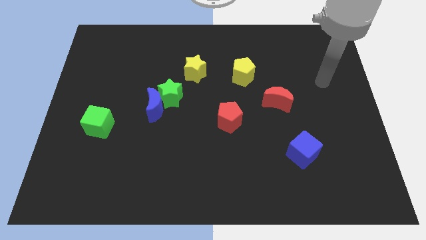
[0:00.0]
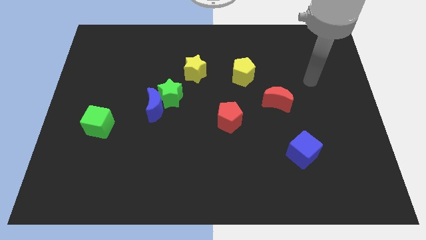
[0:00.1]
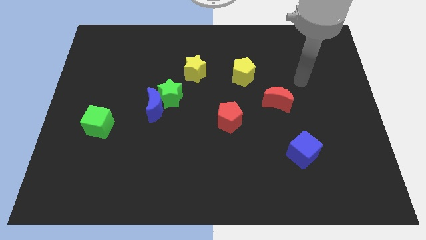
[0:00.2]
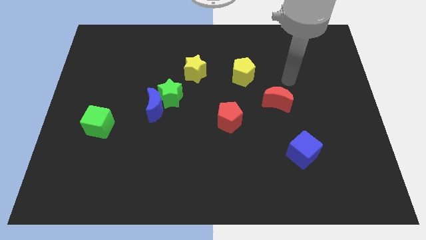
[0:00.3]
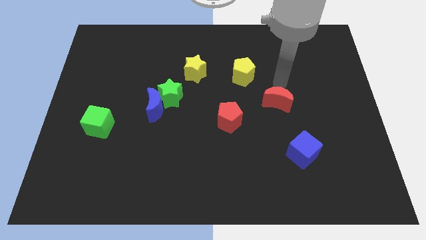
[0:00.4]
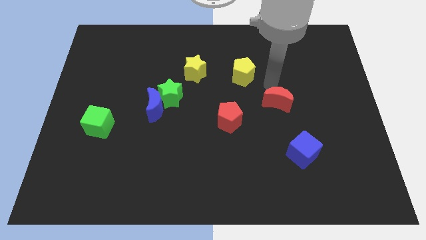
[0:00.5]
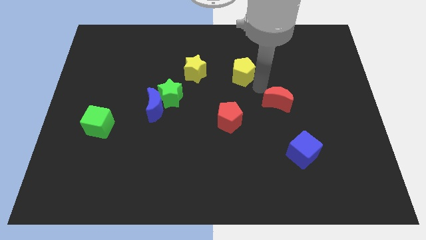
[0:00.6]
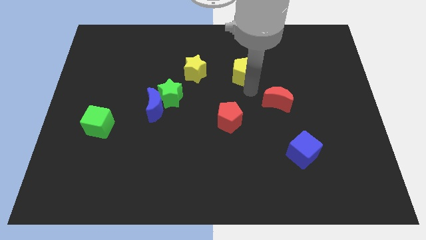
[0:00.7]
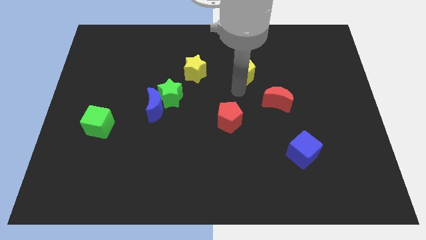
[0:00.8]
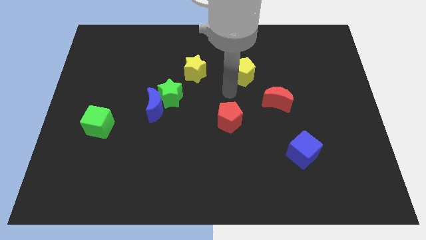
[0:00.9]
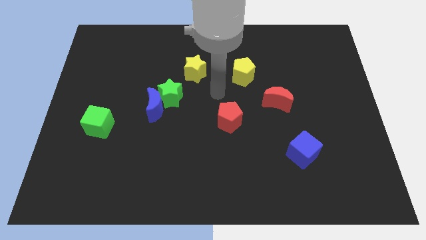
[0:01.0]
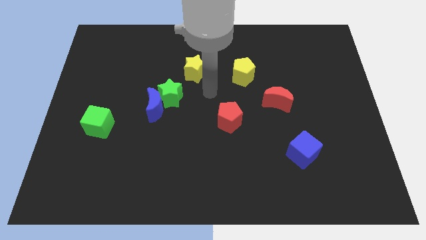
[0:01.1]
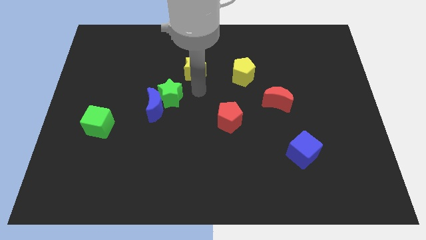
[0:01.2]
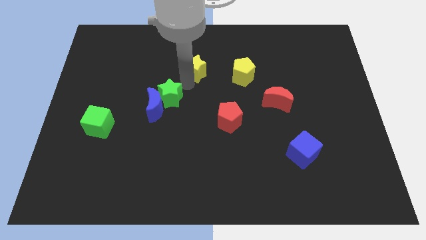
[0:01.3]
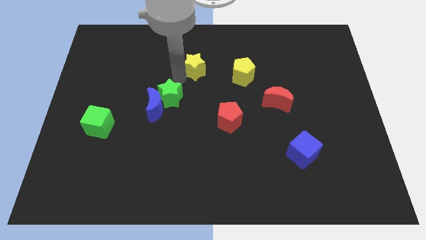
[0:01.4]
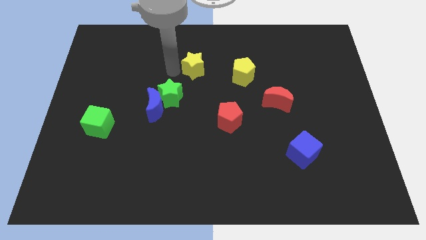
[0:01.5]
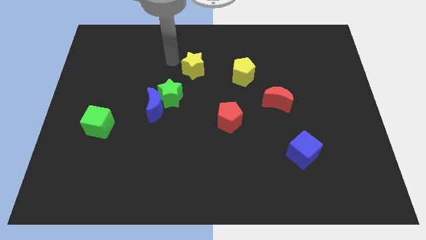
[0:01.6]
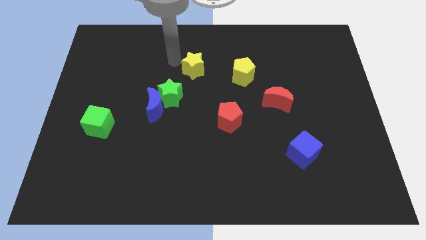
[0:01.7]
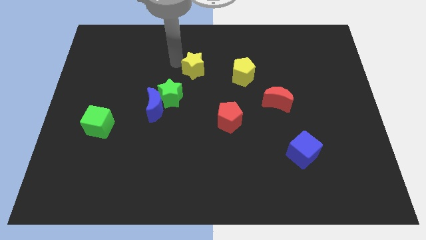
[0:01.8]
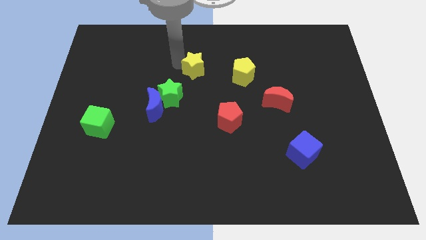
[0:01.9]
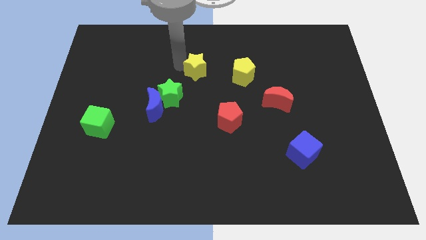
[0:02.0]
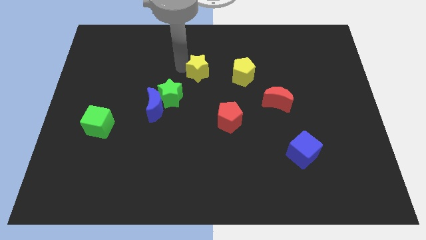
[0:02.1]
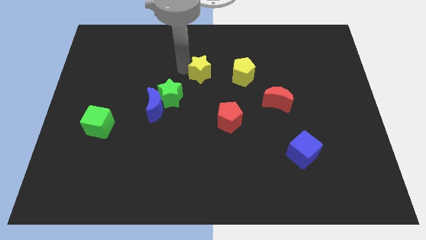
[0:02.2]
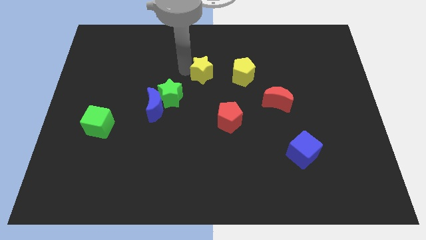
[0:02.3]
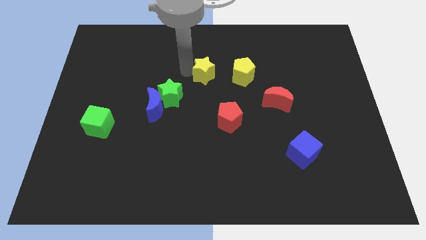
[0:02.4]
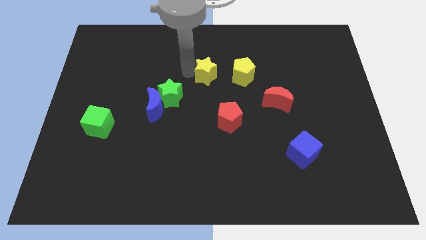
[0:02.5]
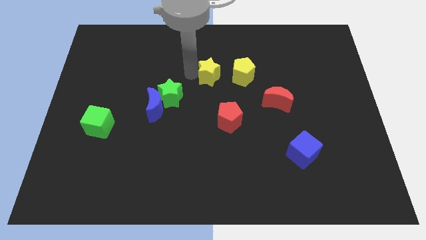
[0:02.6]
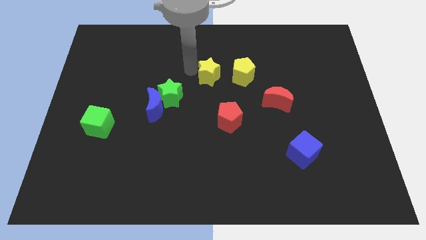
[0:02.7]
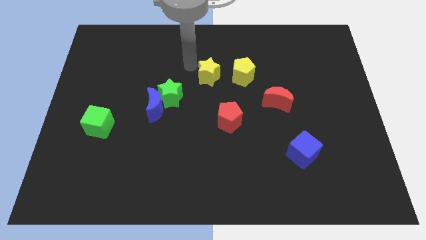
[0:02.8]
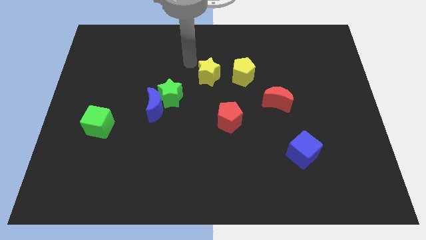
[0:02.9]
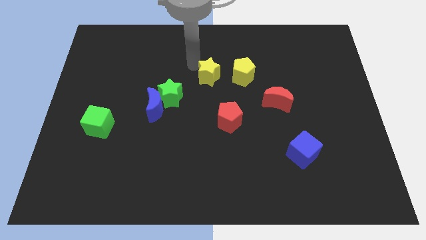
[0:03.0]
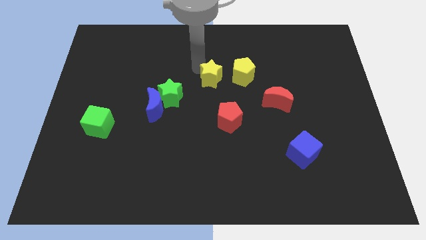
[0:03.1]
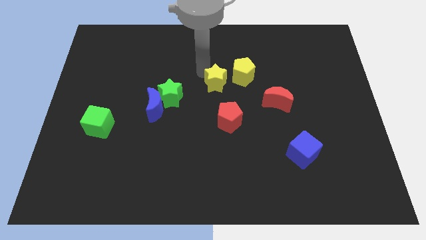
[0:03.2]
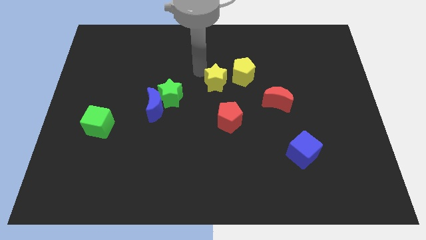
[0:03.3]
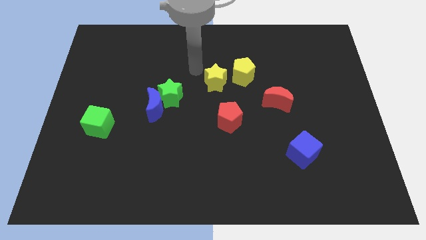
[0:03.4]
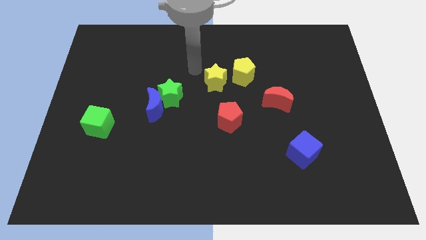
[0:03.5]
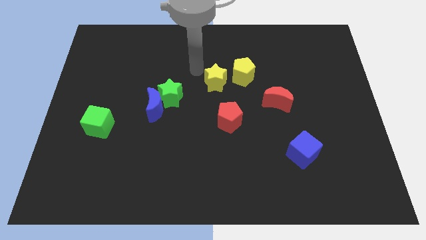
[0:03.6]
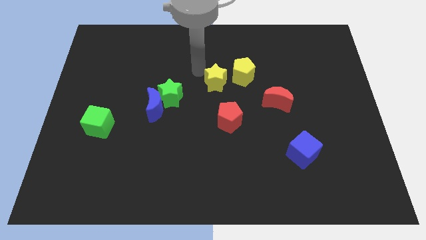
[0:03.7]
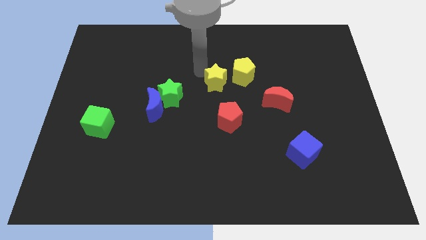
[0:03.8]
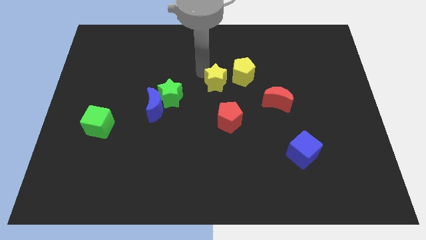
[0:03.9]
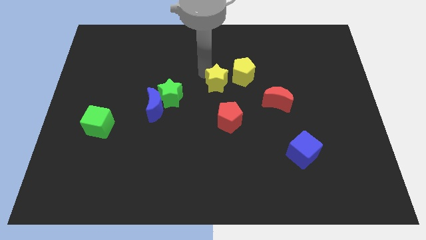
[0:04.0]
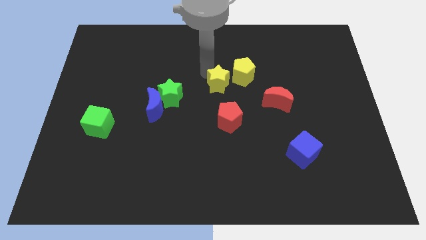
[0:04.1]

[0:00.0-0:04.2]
slightly push the yellow star diagonally down and right

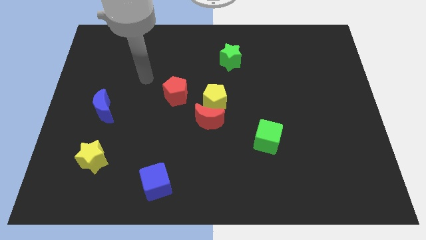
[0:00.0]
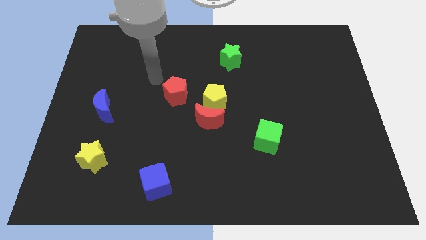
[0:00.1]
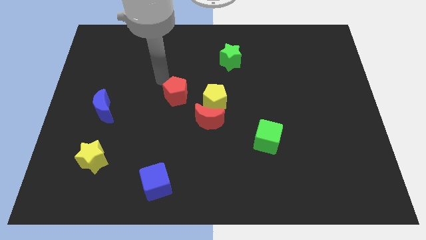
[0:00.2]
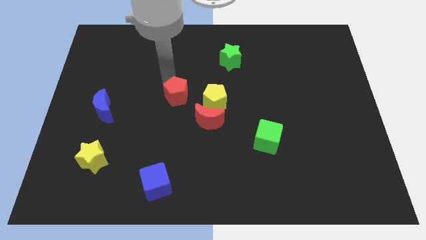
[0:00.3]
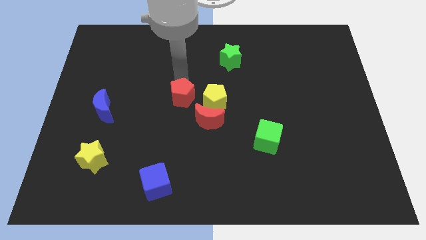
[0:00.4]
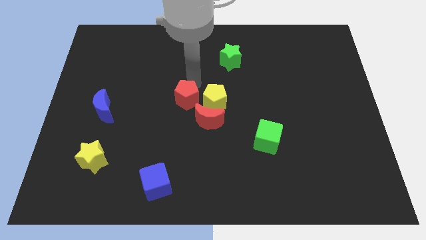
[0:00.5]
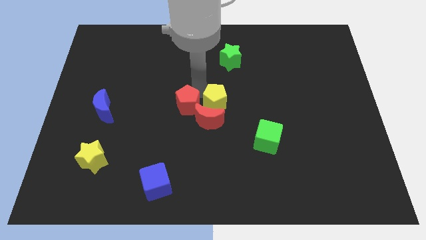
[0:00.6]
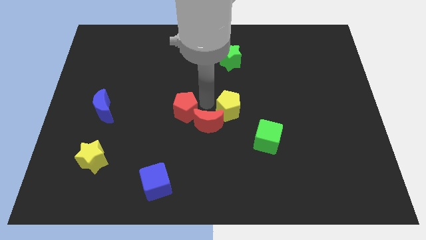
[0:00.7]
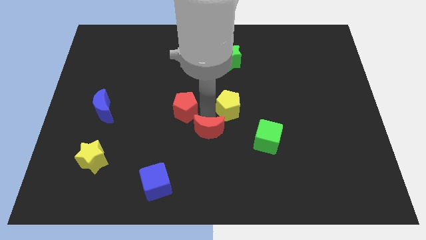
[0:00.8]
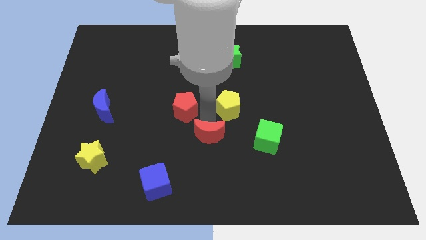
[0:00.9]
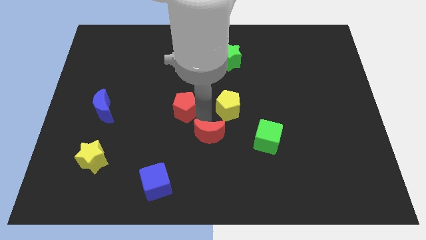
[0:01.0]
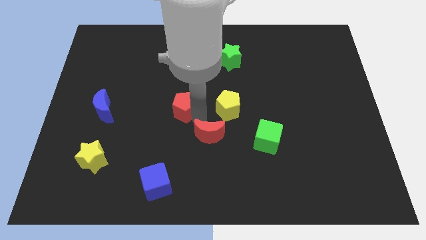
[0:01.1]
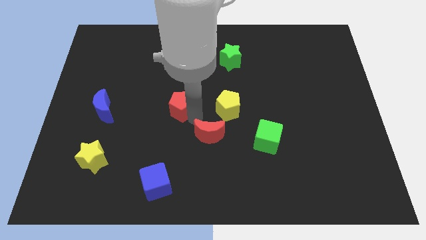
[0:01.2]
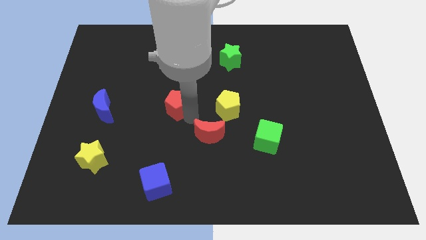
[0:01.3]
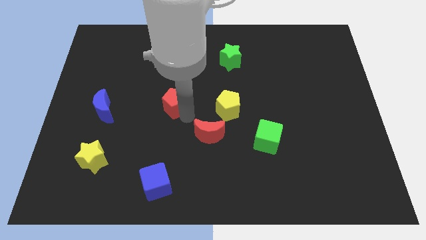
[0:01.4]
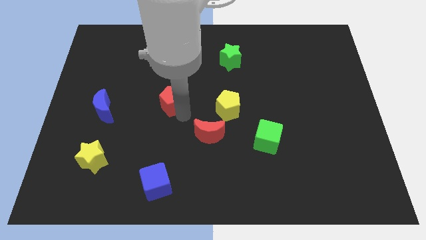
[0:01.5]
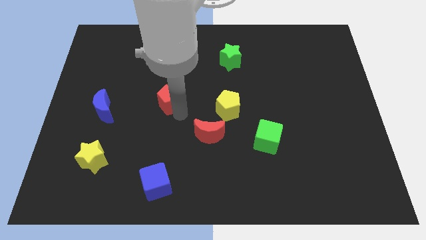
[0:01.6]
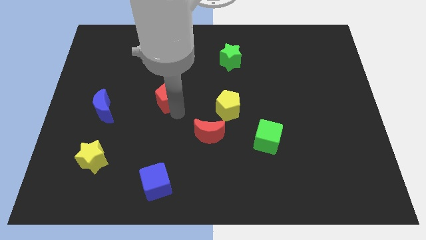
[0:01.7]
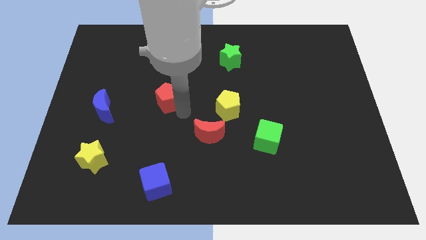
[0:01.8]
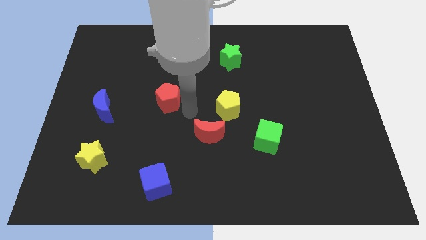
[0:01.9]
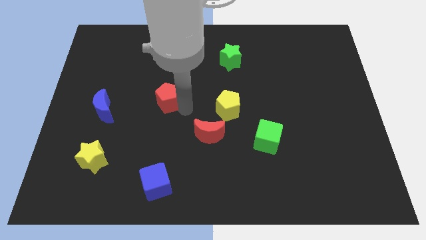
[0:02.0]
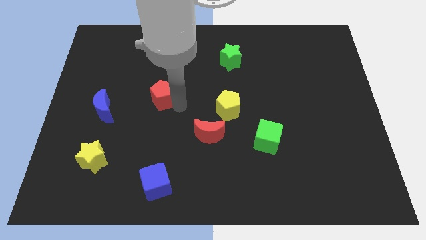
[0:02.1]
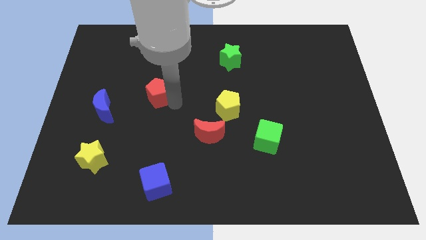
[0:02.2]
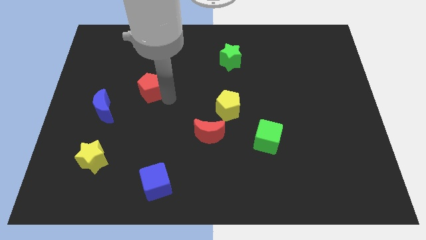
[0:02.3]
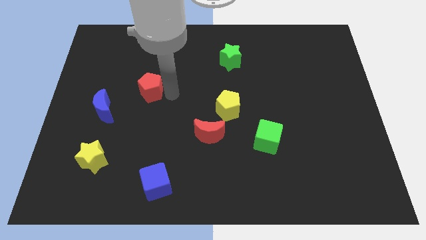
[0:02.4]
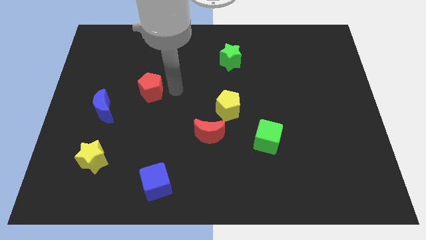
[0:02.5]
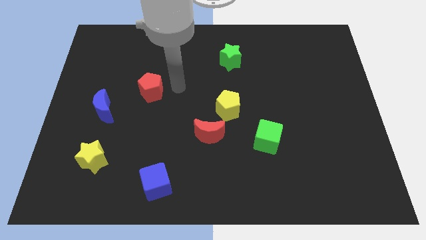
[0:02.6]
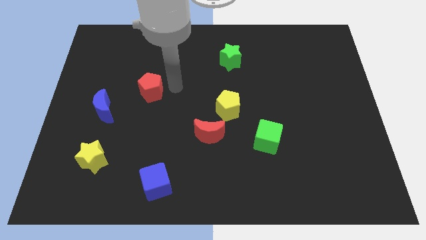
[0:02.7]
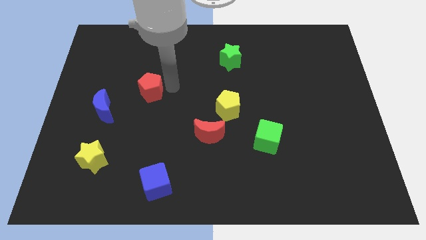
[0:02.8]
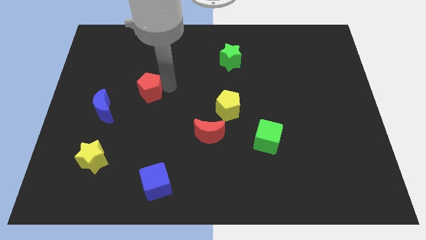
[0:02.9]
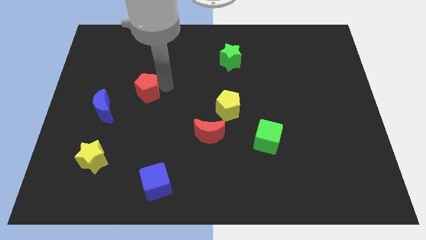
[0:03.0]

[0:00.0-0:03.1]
slide the red pentagon left a bit

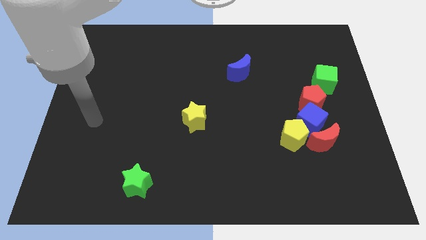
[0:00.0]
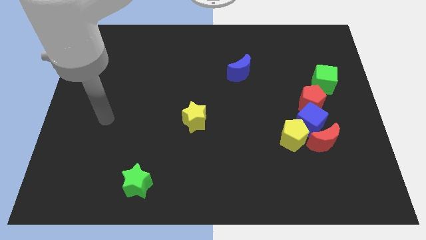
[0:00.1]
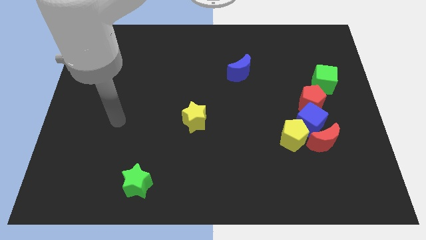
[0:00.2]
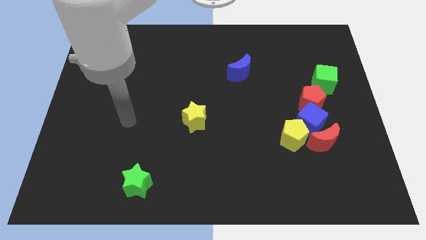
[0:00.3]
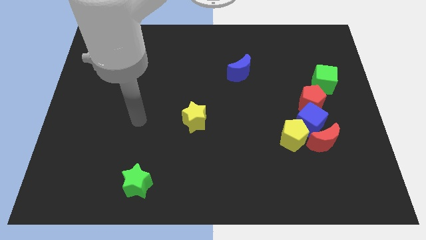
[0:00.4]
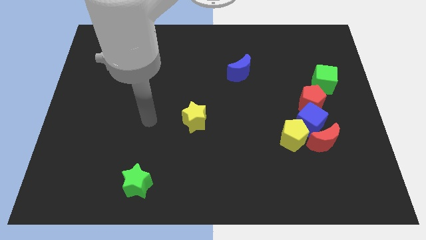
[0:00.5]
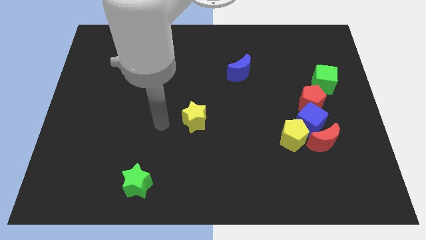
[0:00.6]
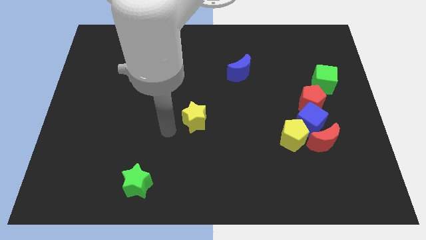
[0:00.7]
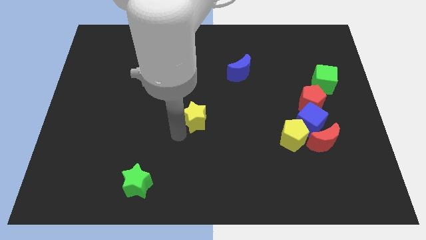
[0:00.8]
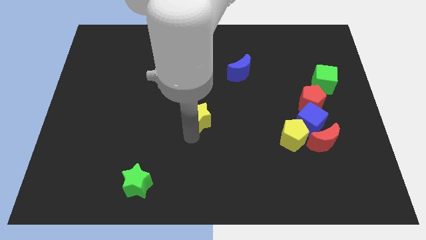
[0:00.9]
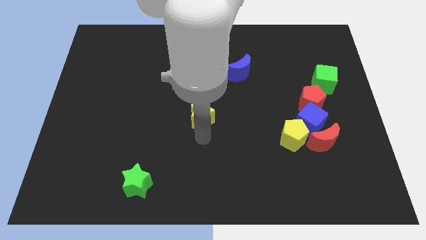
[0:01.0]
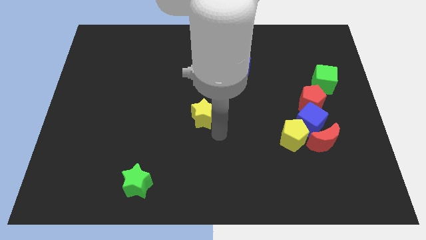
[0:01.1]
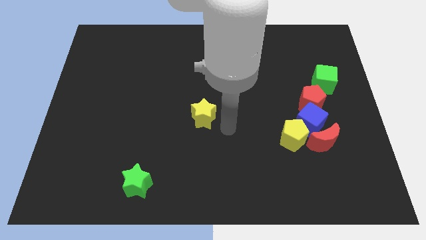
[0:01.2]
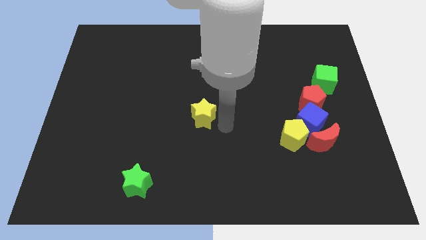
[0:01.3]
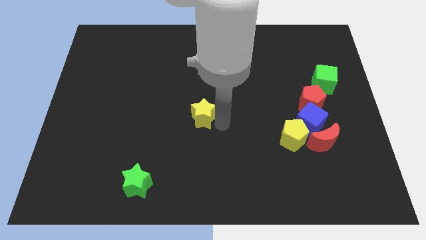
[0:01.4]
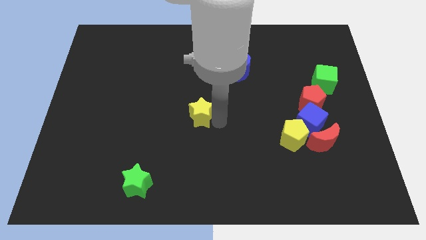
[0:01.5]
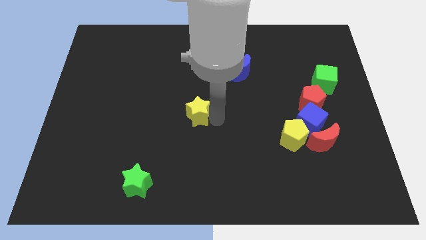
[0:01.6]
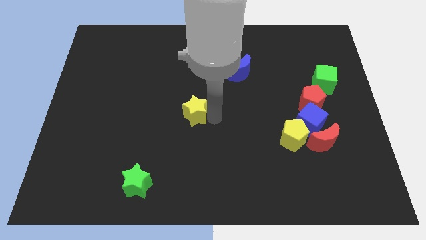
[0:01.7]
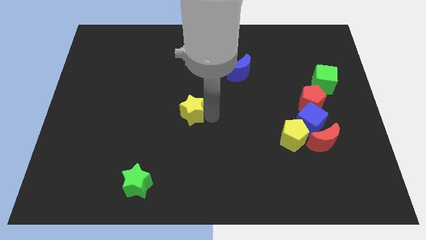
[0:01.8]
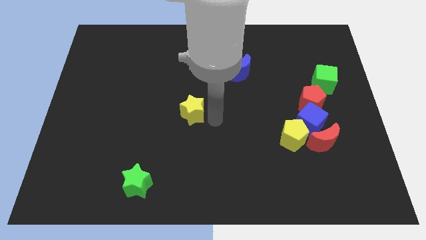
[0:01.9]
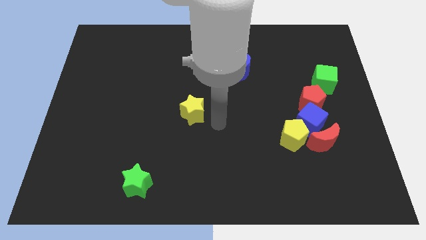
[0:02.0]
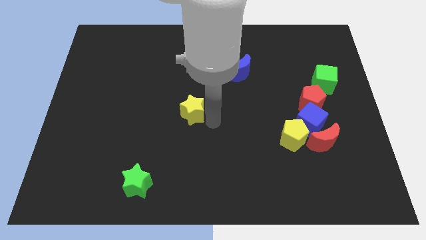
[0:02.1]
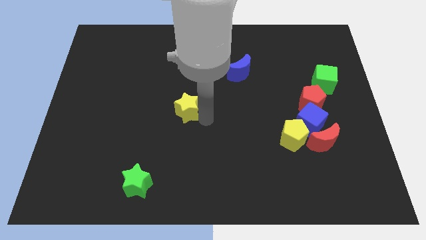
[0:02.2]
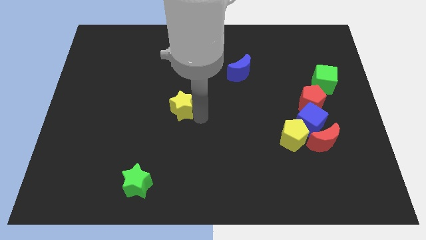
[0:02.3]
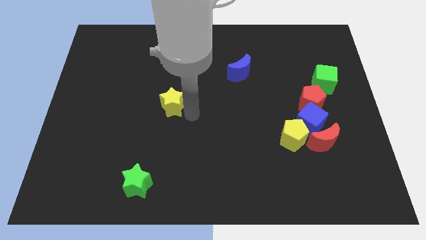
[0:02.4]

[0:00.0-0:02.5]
push the yellow star up and then to the left a bit
